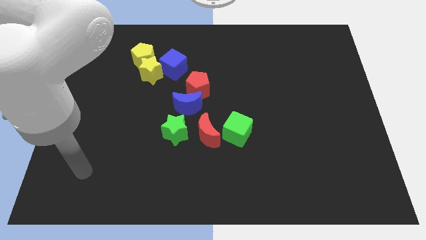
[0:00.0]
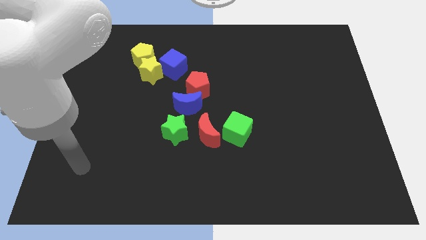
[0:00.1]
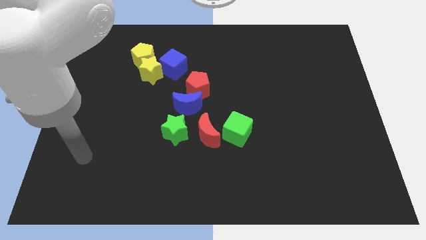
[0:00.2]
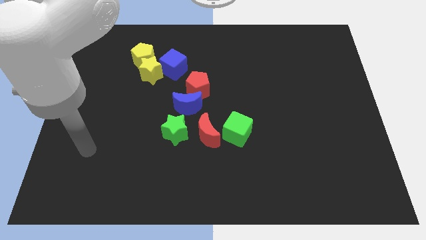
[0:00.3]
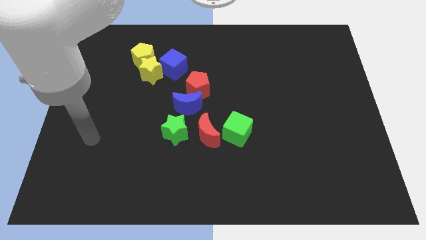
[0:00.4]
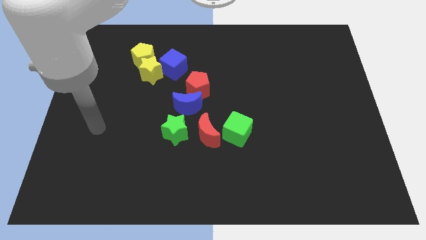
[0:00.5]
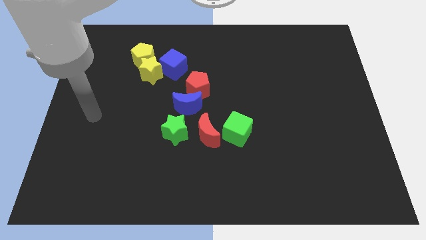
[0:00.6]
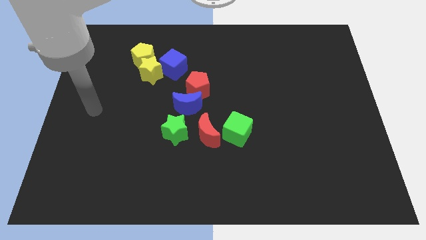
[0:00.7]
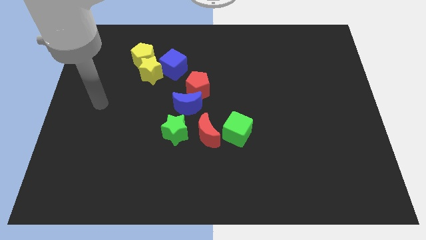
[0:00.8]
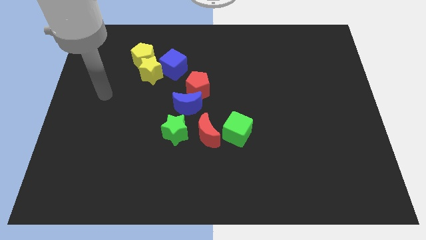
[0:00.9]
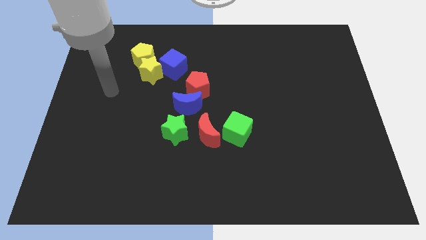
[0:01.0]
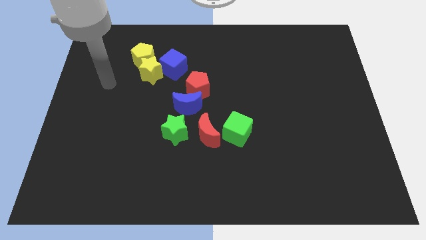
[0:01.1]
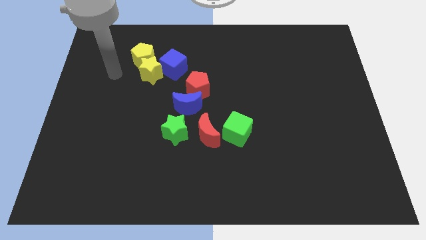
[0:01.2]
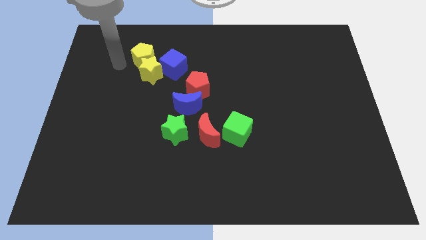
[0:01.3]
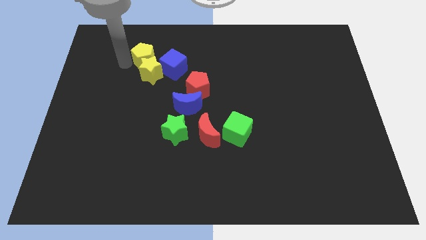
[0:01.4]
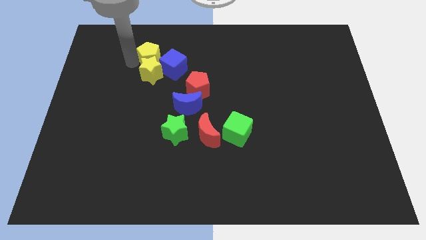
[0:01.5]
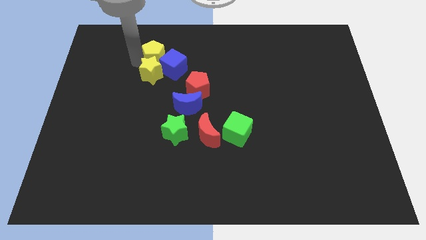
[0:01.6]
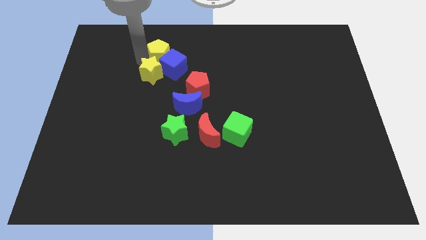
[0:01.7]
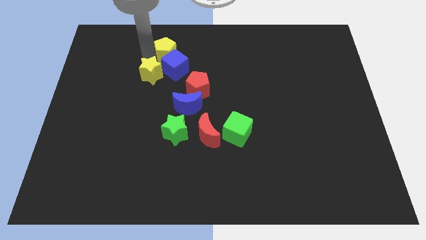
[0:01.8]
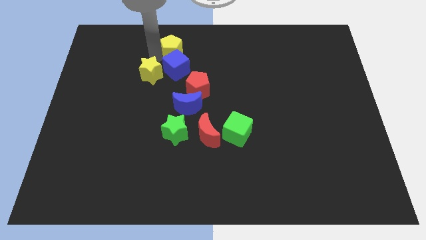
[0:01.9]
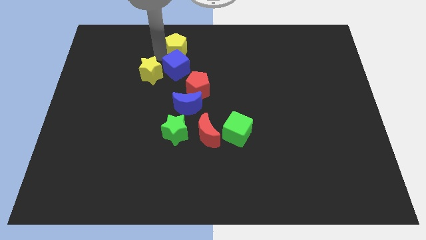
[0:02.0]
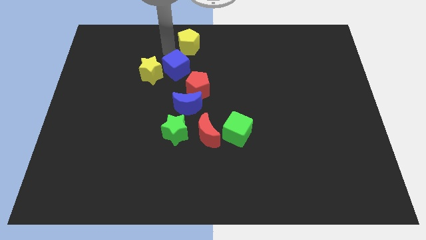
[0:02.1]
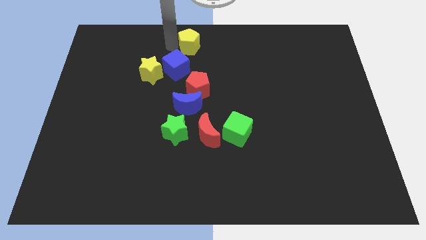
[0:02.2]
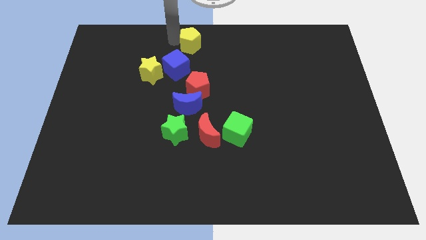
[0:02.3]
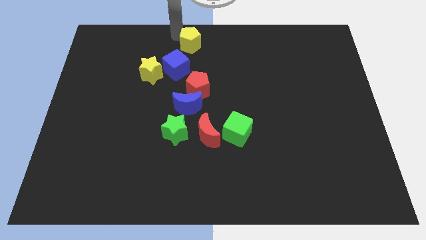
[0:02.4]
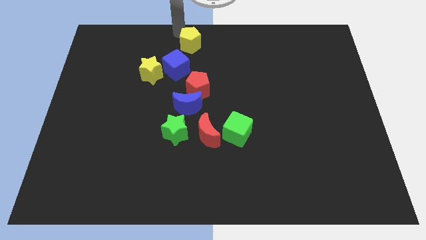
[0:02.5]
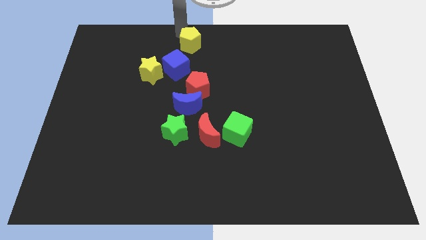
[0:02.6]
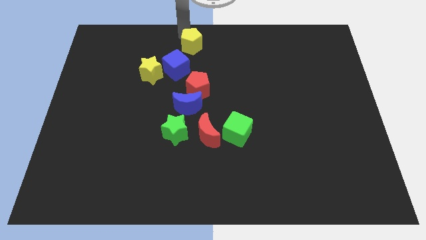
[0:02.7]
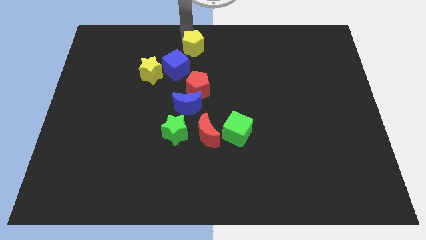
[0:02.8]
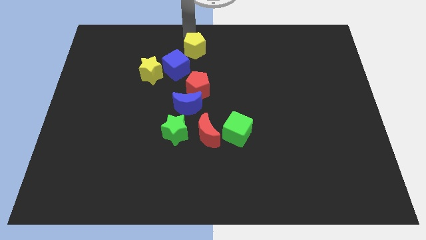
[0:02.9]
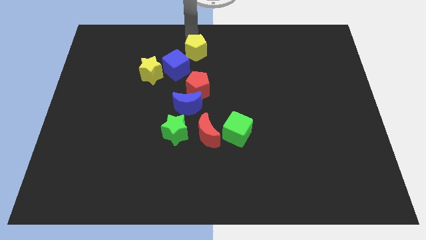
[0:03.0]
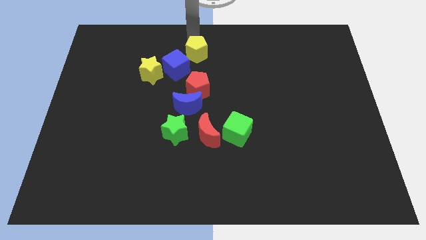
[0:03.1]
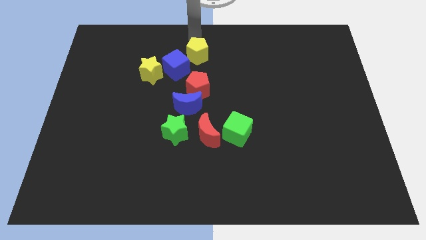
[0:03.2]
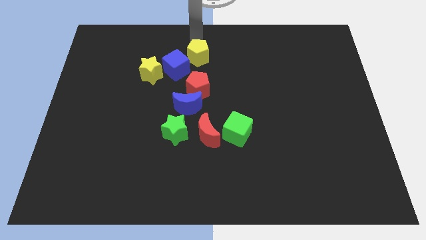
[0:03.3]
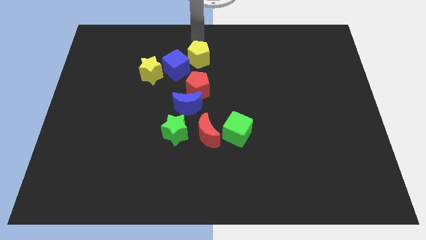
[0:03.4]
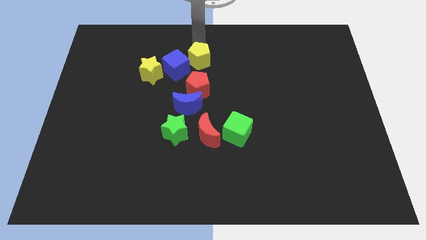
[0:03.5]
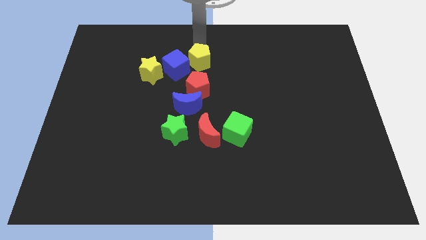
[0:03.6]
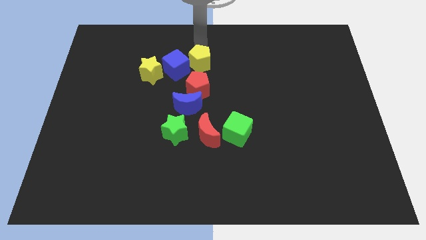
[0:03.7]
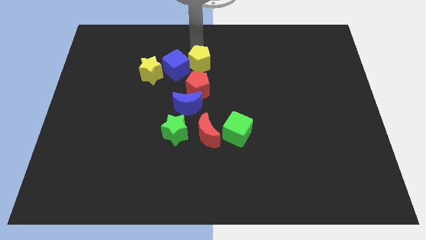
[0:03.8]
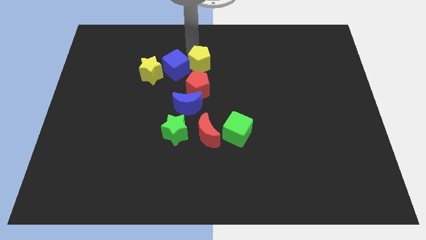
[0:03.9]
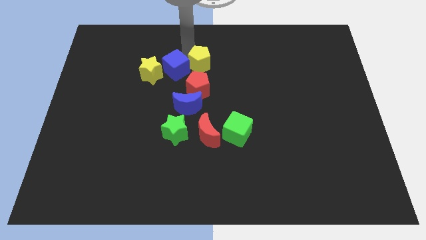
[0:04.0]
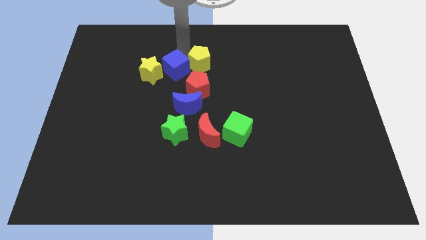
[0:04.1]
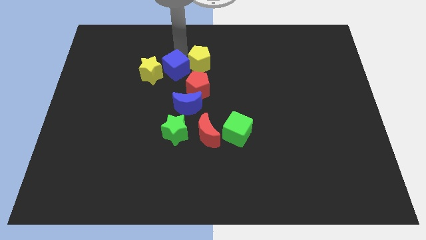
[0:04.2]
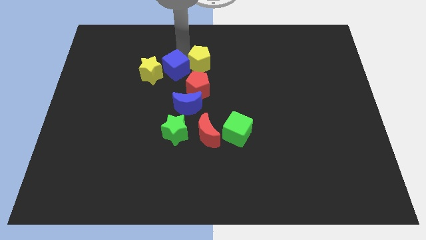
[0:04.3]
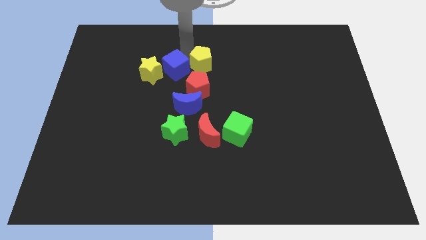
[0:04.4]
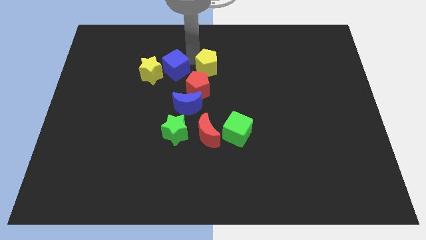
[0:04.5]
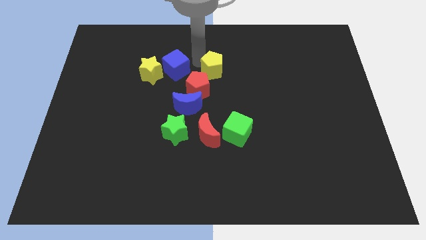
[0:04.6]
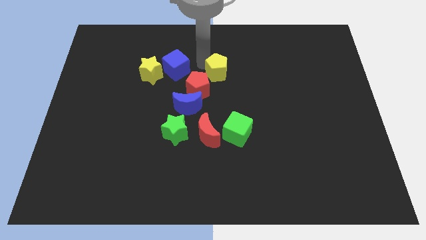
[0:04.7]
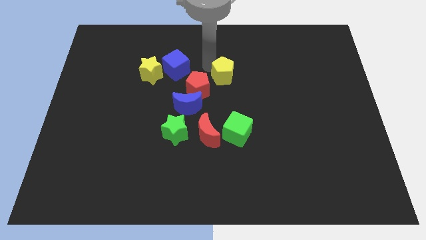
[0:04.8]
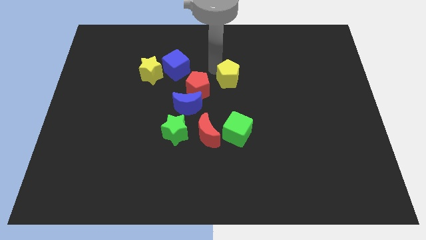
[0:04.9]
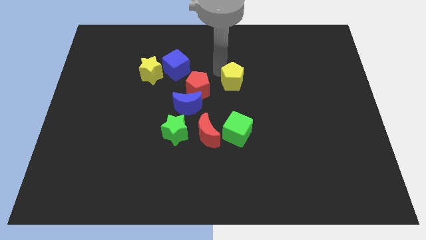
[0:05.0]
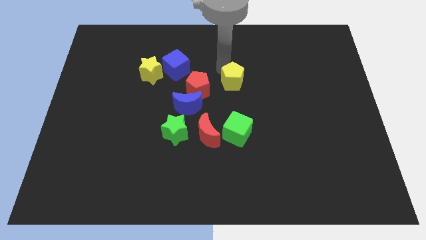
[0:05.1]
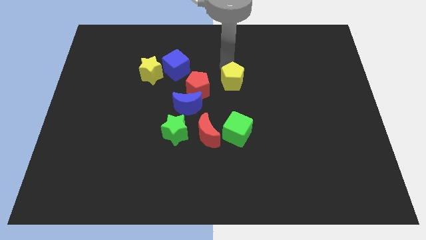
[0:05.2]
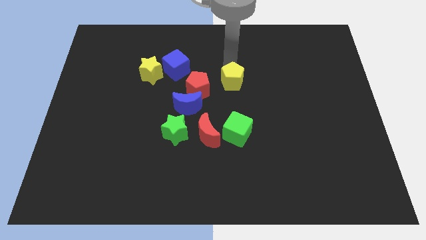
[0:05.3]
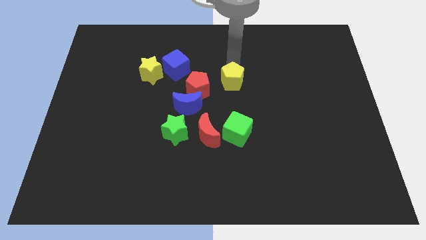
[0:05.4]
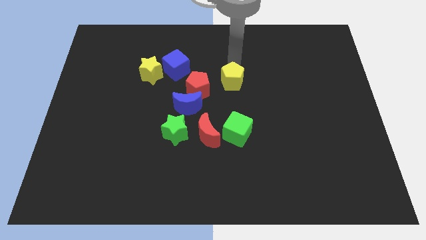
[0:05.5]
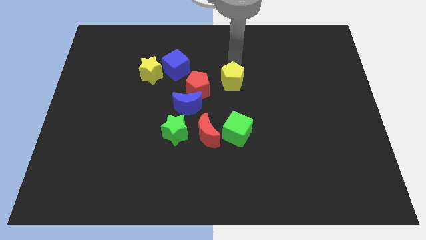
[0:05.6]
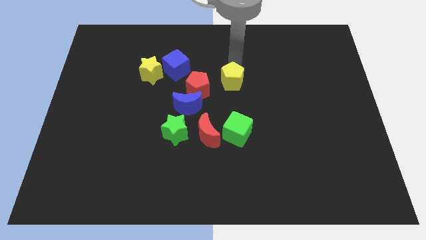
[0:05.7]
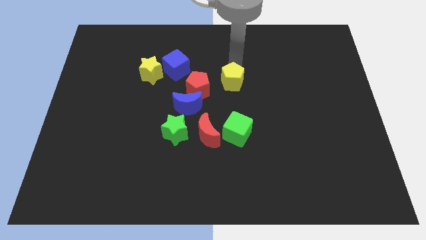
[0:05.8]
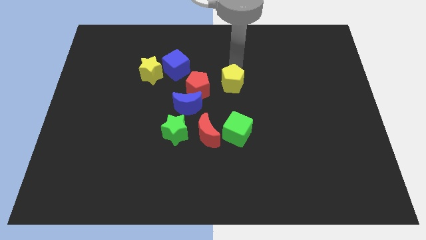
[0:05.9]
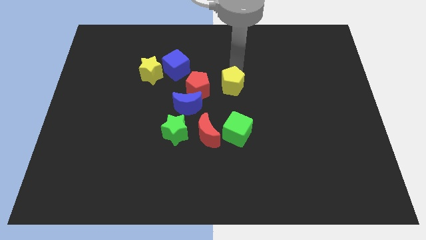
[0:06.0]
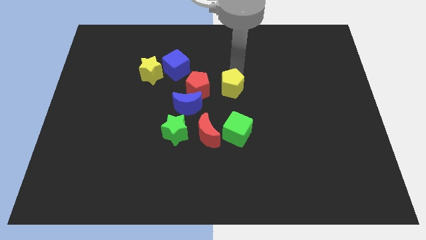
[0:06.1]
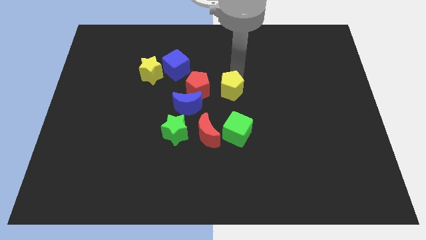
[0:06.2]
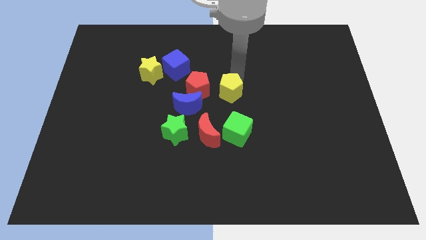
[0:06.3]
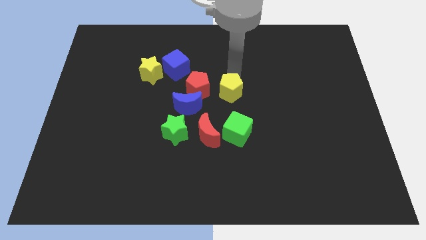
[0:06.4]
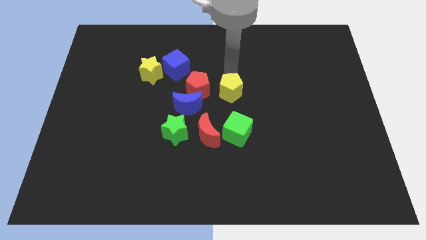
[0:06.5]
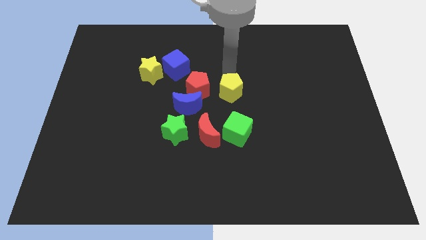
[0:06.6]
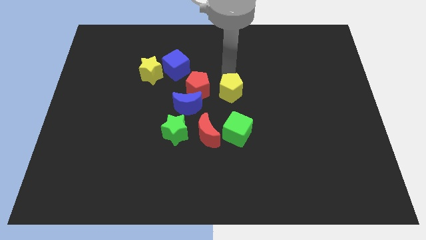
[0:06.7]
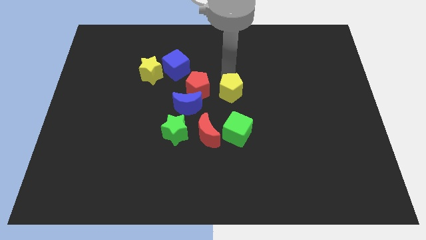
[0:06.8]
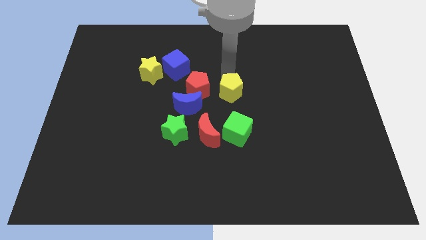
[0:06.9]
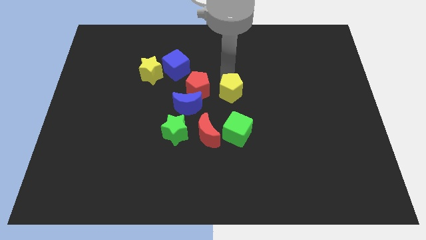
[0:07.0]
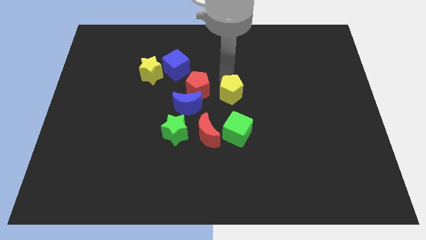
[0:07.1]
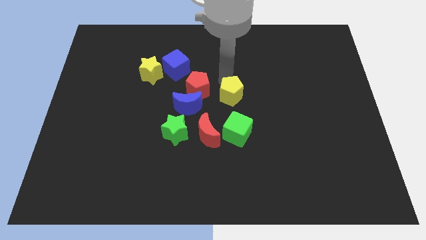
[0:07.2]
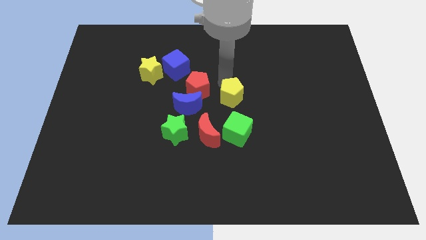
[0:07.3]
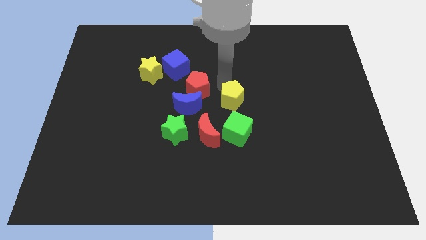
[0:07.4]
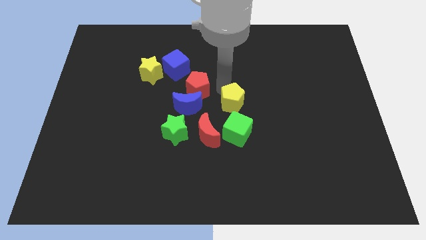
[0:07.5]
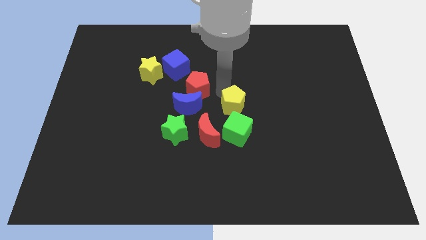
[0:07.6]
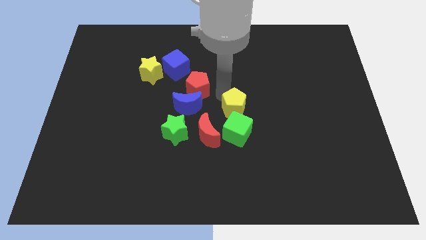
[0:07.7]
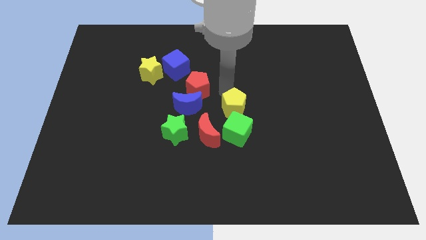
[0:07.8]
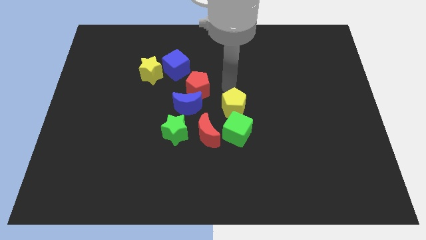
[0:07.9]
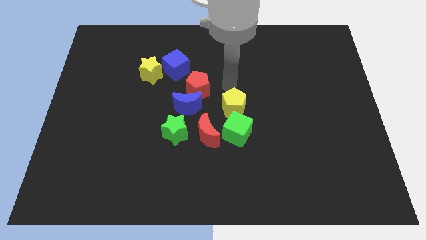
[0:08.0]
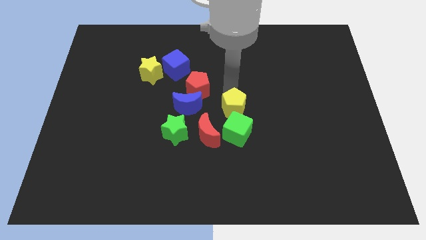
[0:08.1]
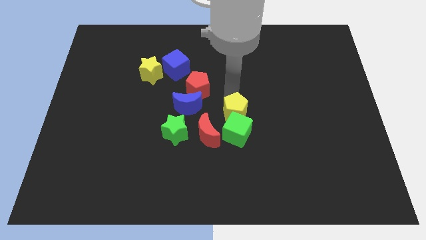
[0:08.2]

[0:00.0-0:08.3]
push the yellow pentagon close to the green cube
